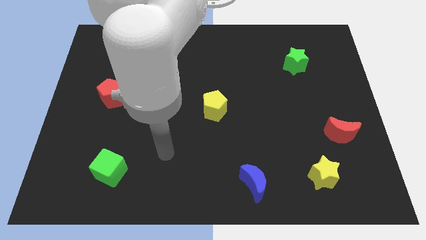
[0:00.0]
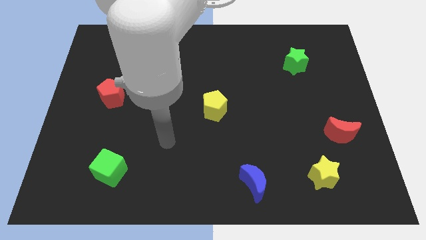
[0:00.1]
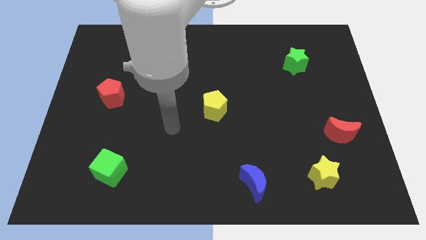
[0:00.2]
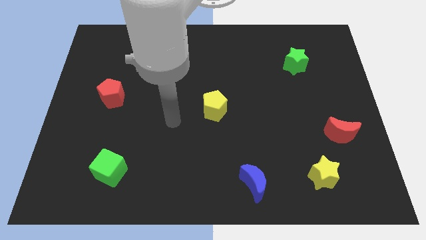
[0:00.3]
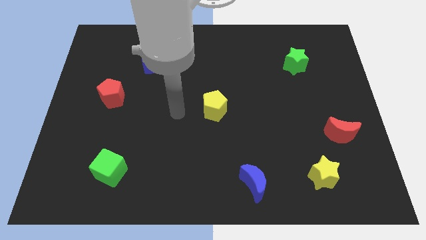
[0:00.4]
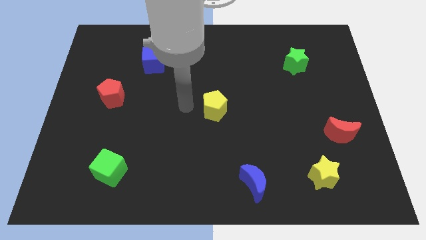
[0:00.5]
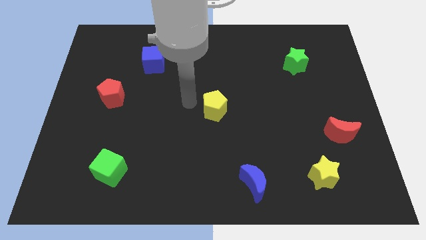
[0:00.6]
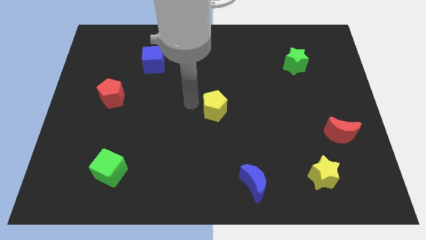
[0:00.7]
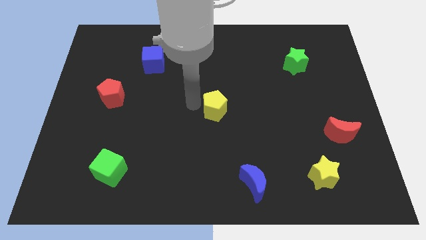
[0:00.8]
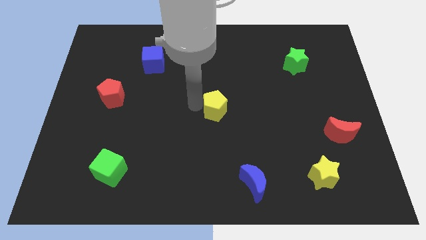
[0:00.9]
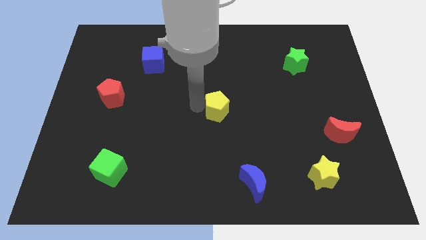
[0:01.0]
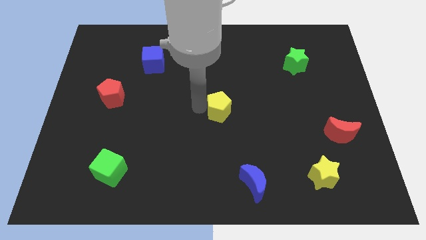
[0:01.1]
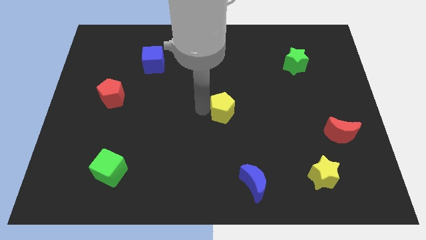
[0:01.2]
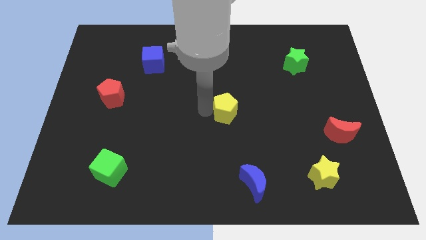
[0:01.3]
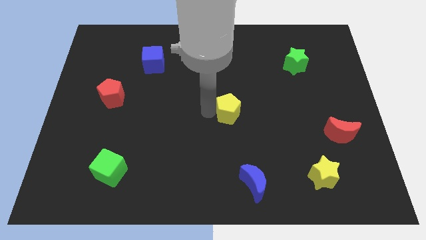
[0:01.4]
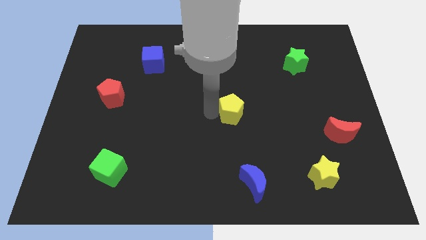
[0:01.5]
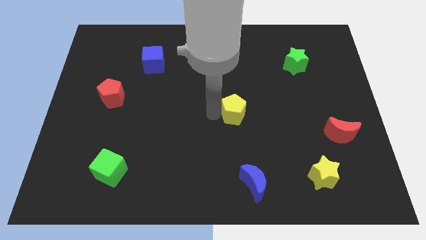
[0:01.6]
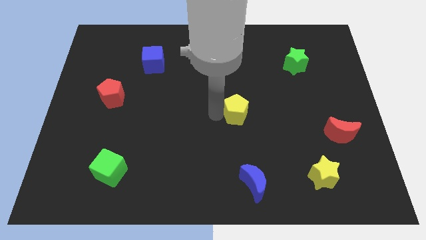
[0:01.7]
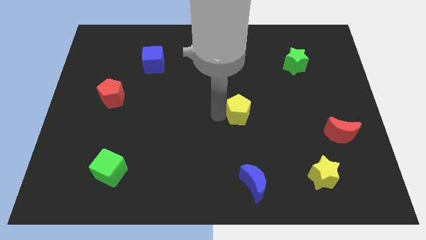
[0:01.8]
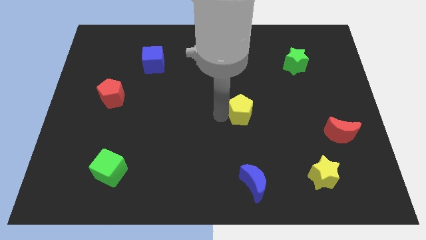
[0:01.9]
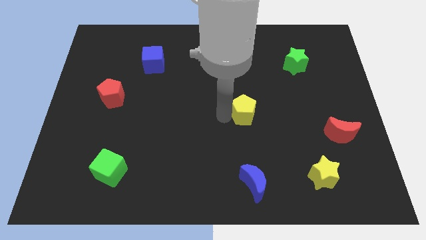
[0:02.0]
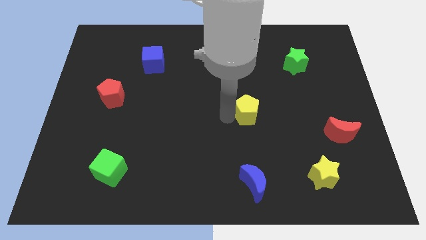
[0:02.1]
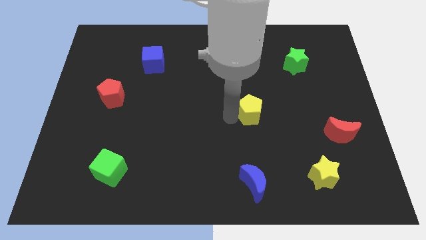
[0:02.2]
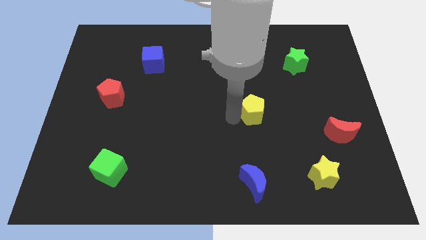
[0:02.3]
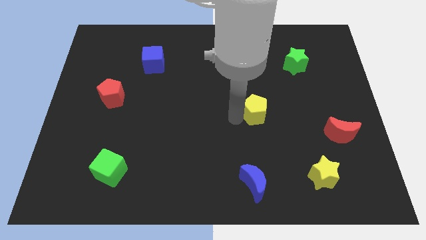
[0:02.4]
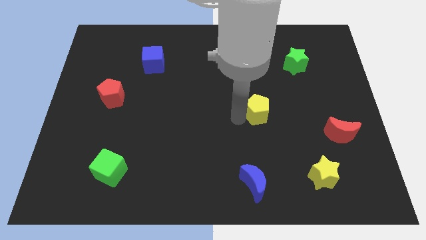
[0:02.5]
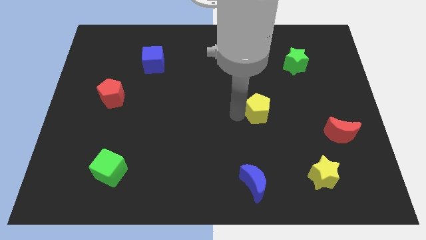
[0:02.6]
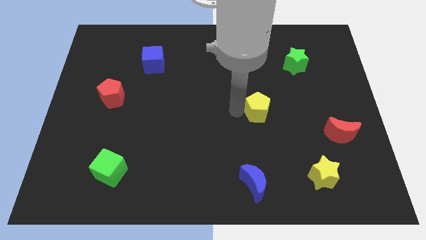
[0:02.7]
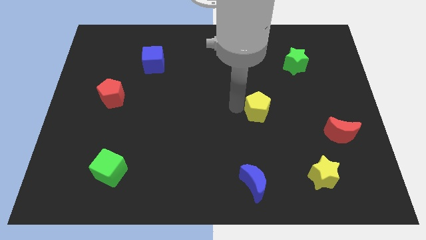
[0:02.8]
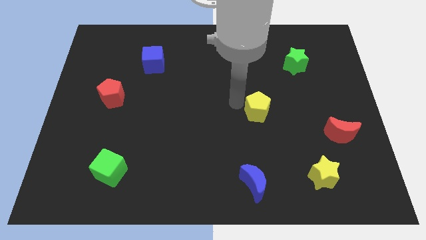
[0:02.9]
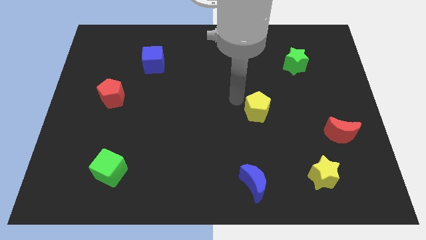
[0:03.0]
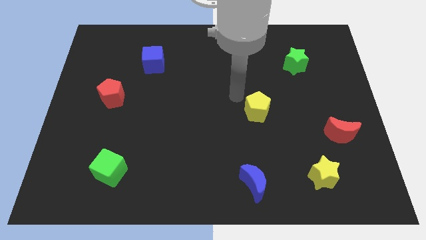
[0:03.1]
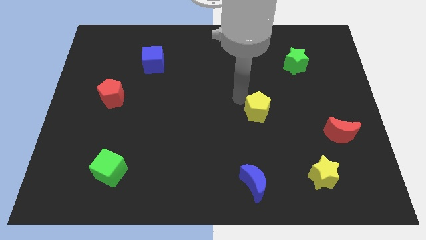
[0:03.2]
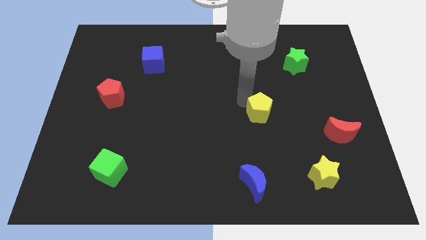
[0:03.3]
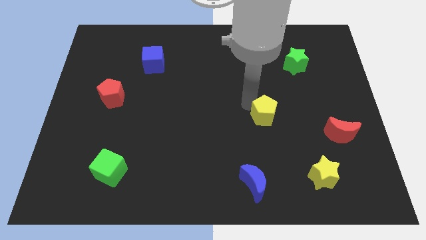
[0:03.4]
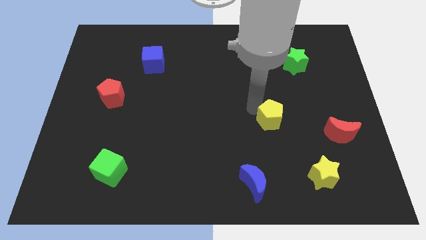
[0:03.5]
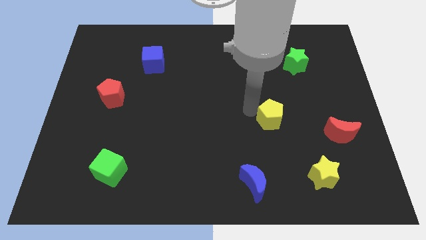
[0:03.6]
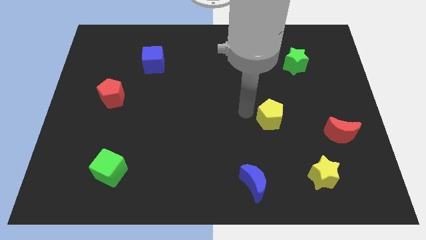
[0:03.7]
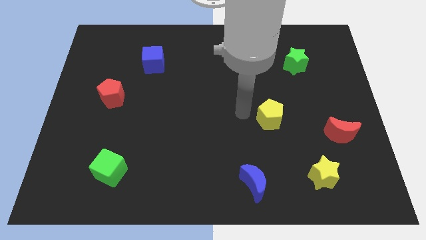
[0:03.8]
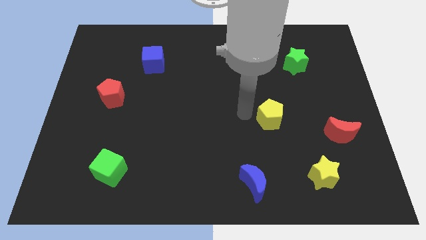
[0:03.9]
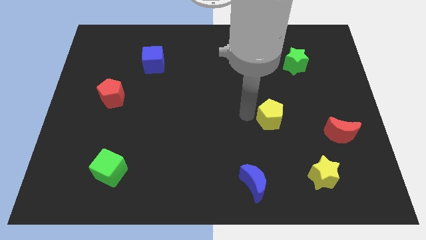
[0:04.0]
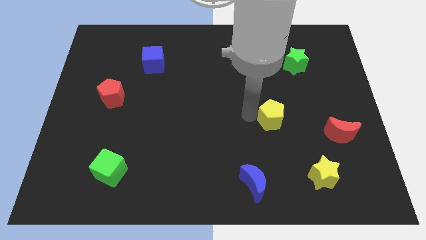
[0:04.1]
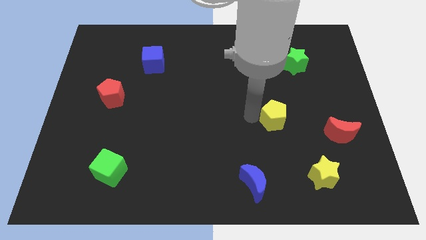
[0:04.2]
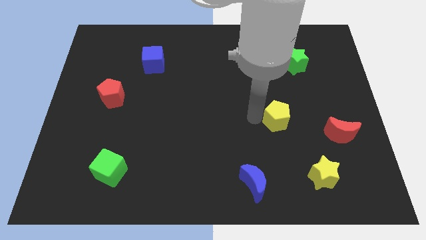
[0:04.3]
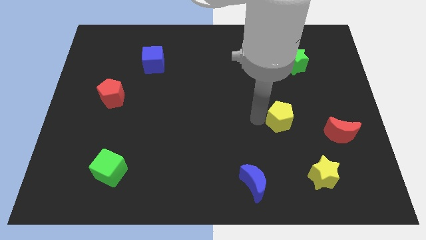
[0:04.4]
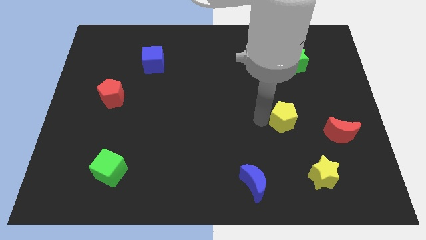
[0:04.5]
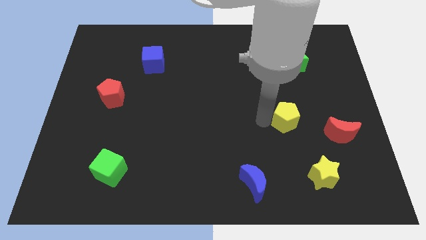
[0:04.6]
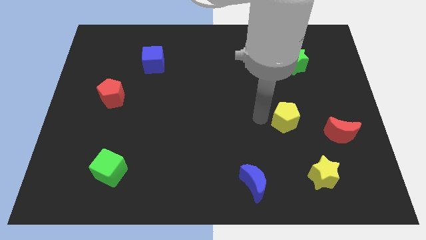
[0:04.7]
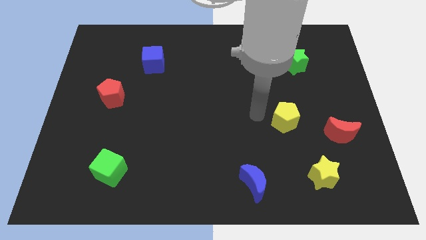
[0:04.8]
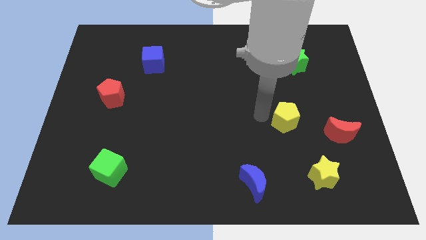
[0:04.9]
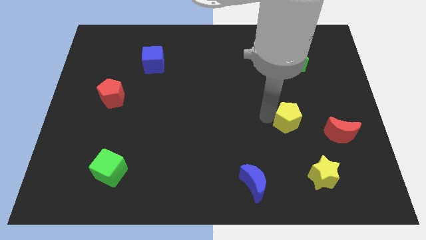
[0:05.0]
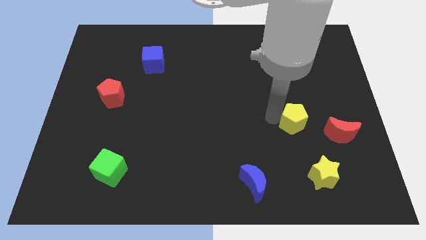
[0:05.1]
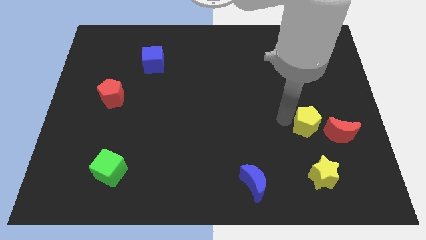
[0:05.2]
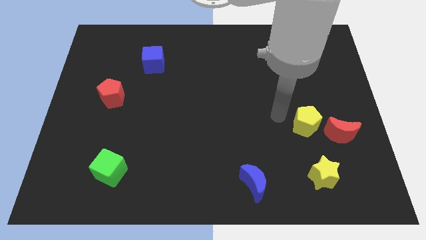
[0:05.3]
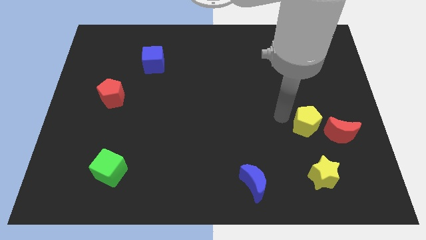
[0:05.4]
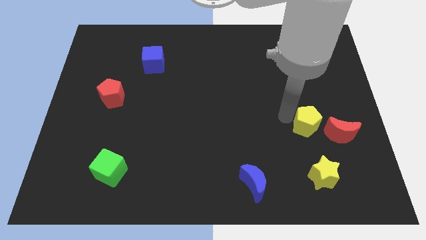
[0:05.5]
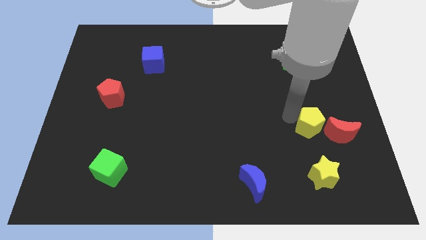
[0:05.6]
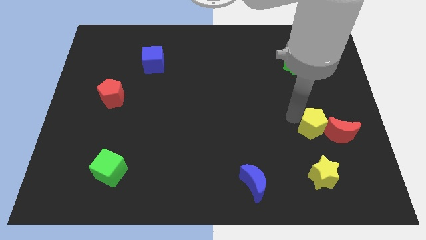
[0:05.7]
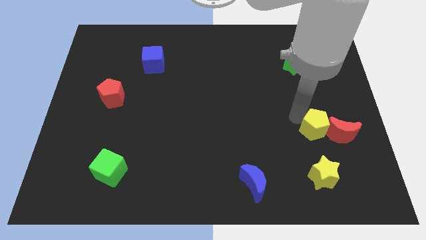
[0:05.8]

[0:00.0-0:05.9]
put the yellow pentagon close to the red moon

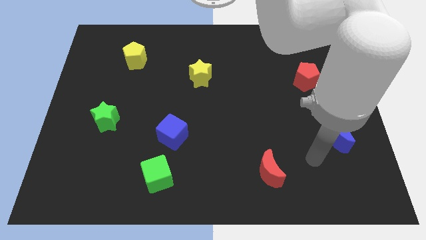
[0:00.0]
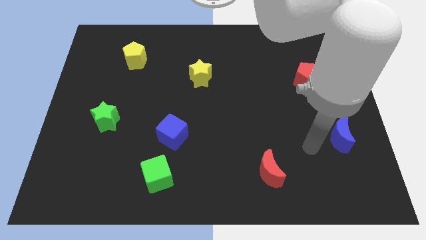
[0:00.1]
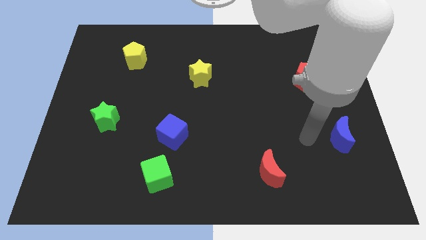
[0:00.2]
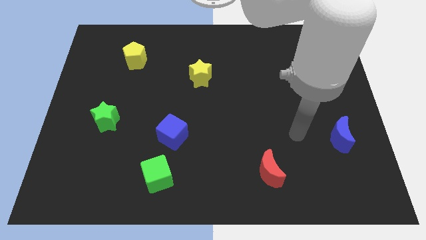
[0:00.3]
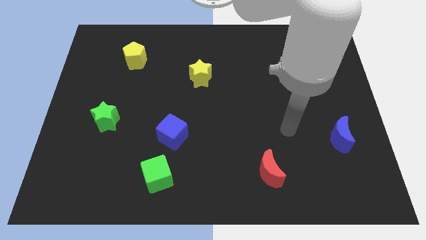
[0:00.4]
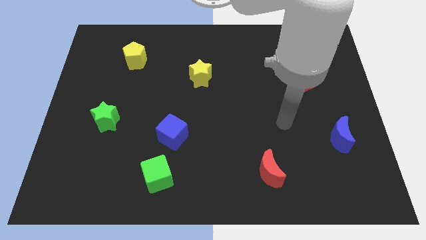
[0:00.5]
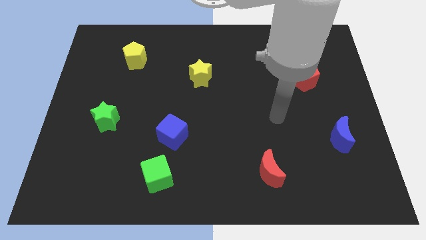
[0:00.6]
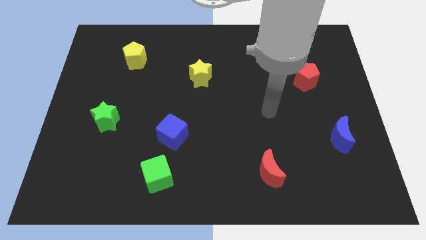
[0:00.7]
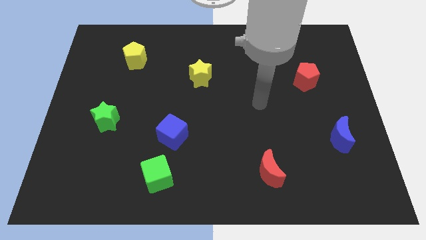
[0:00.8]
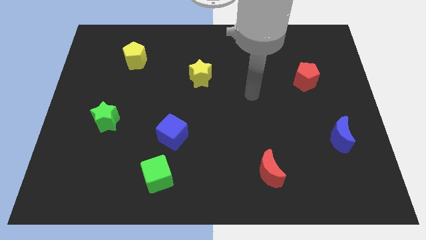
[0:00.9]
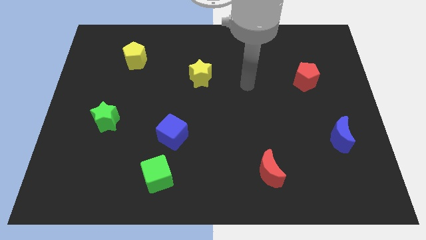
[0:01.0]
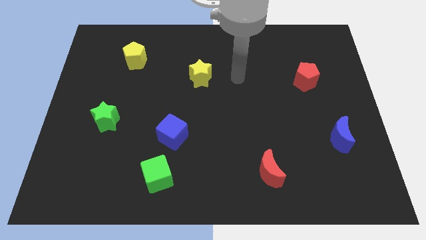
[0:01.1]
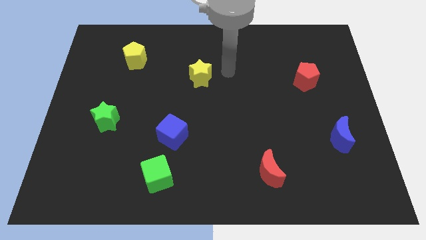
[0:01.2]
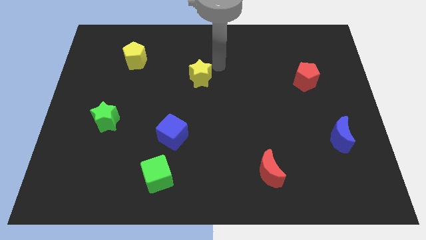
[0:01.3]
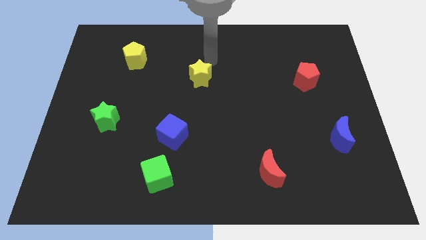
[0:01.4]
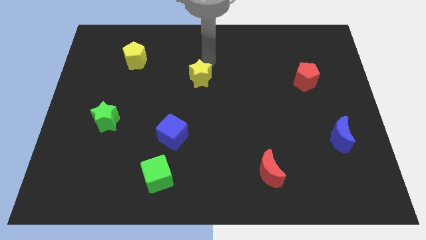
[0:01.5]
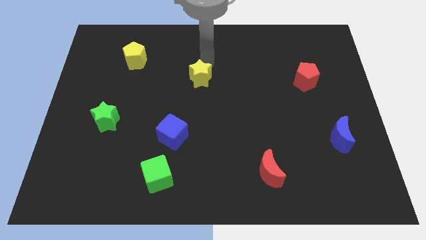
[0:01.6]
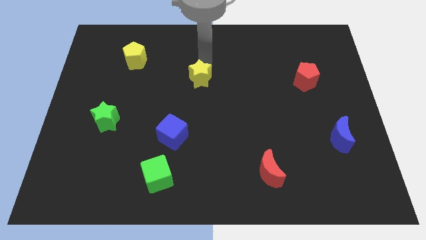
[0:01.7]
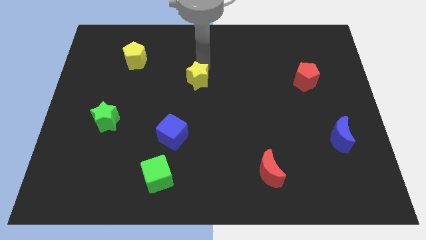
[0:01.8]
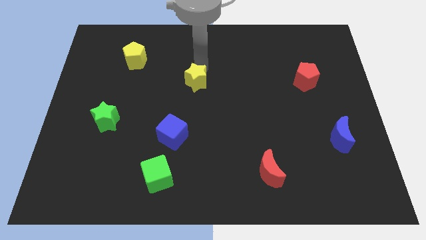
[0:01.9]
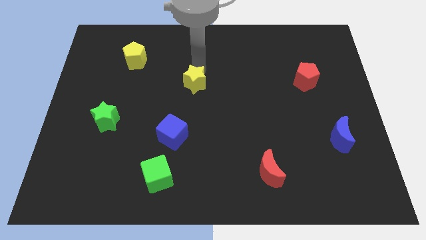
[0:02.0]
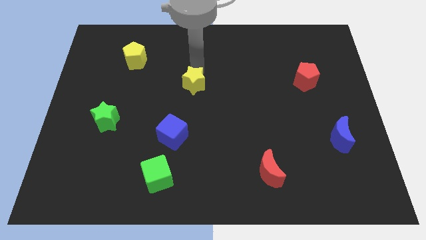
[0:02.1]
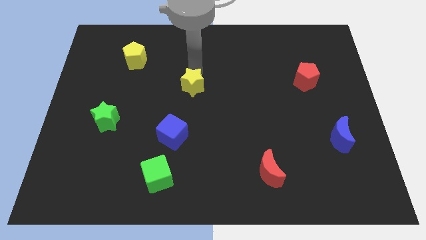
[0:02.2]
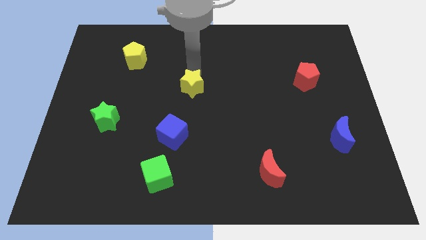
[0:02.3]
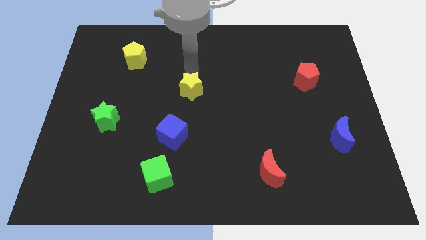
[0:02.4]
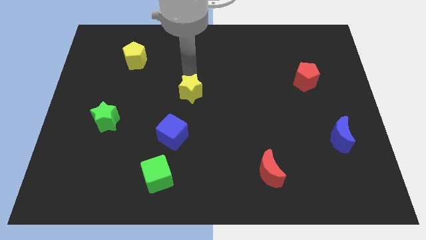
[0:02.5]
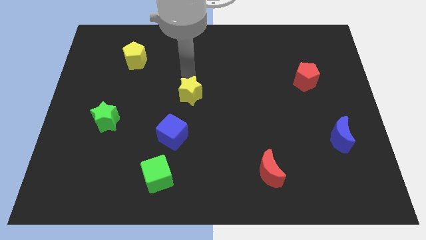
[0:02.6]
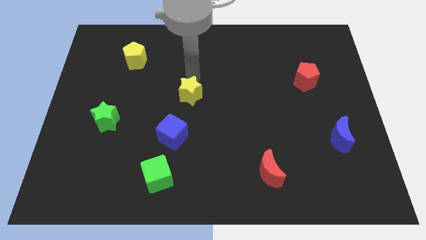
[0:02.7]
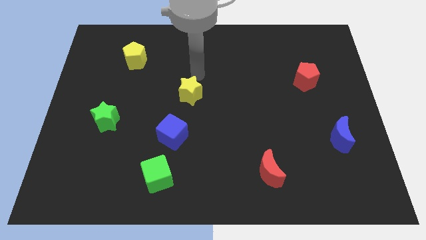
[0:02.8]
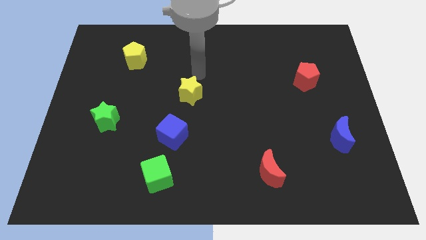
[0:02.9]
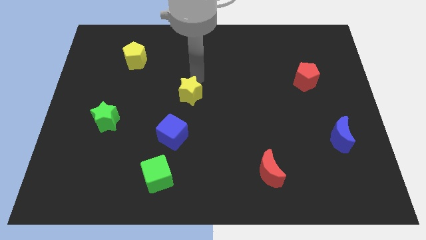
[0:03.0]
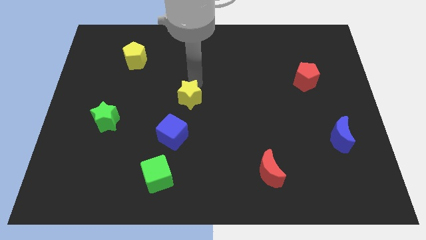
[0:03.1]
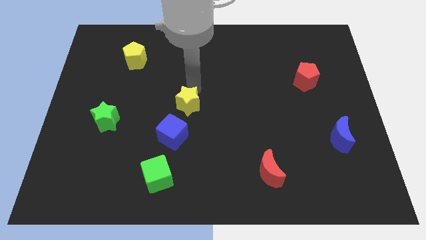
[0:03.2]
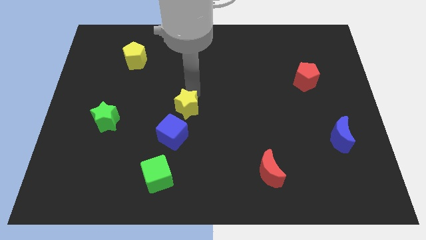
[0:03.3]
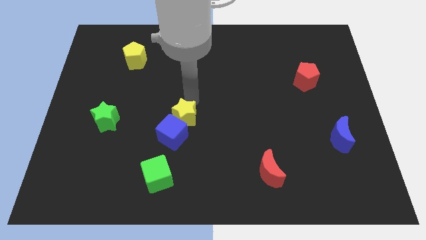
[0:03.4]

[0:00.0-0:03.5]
put the yellow star towards the blue cube
